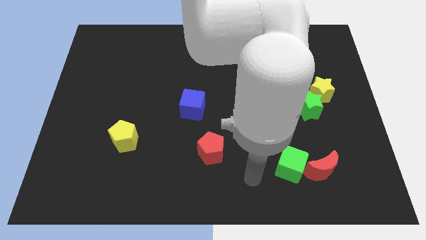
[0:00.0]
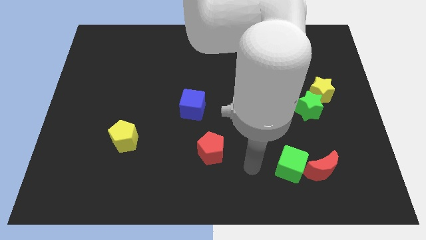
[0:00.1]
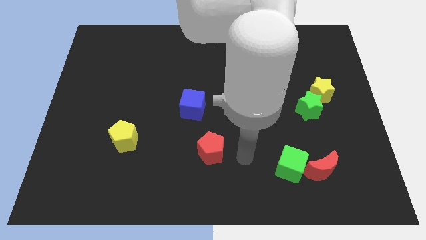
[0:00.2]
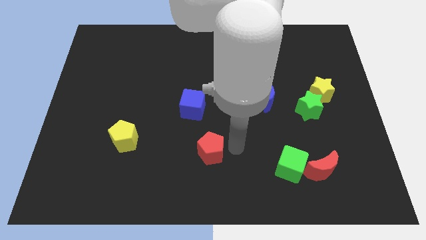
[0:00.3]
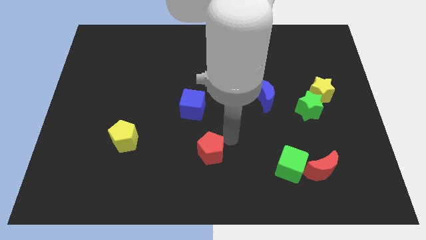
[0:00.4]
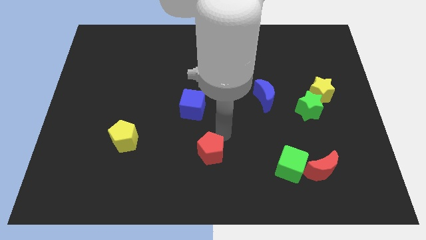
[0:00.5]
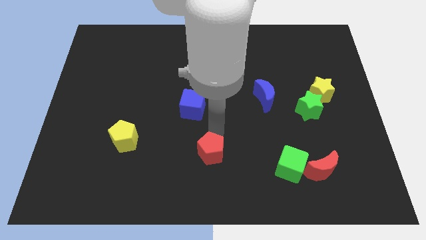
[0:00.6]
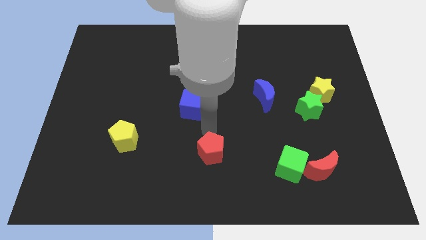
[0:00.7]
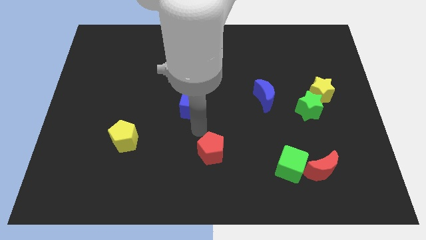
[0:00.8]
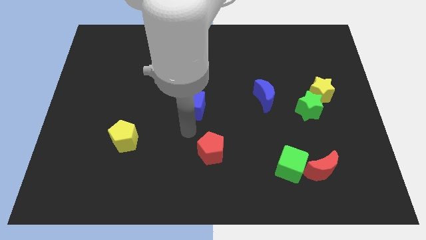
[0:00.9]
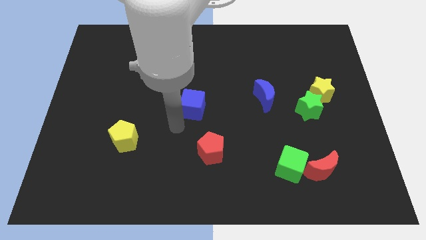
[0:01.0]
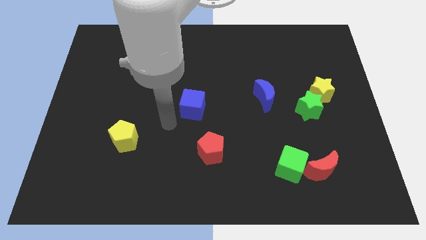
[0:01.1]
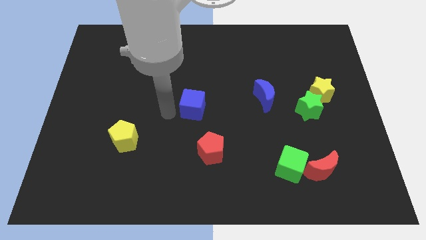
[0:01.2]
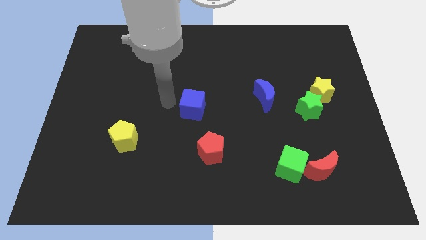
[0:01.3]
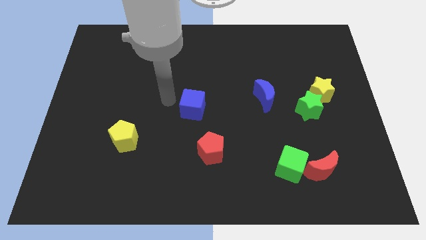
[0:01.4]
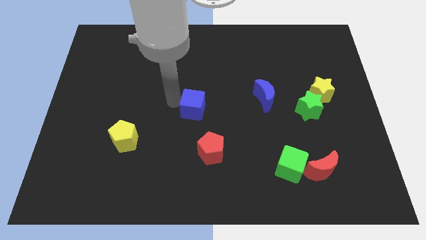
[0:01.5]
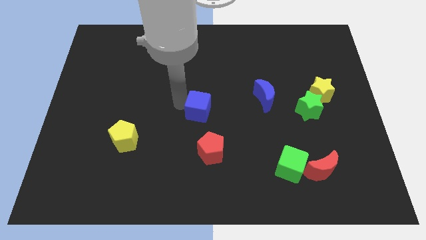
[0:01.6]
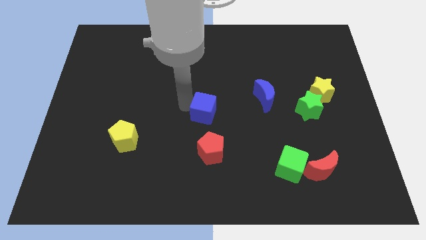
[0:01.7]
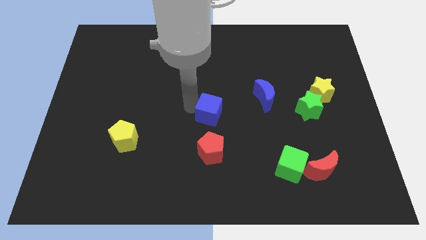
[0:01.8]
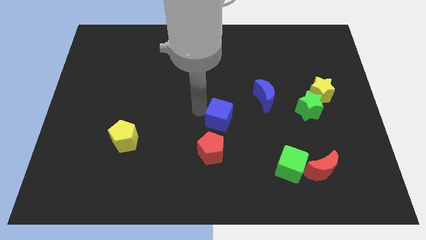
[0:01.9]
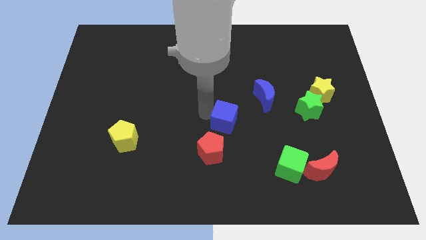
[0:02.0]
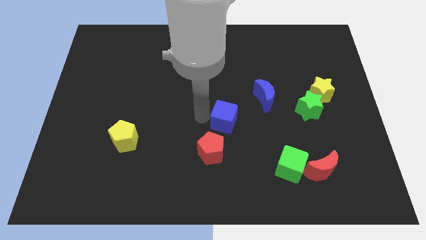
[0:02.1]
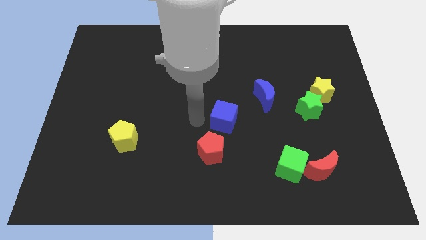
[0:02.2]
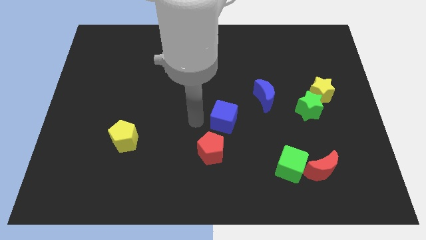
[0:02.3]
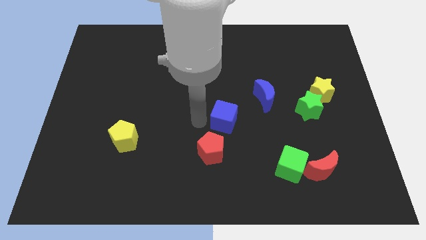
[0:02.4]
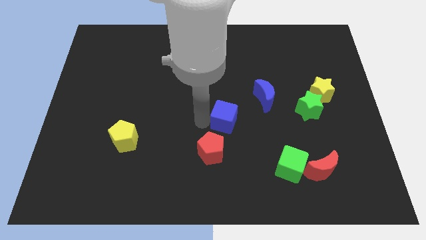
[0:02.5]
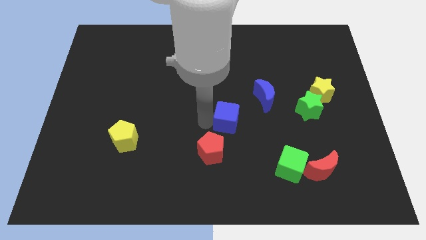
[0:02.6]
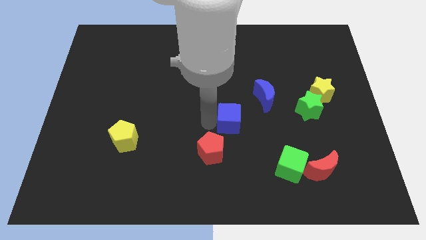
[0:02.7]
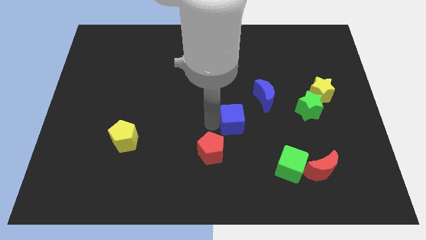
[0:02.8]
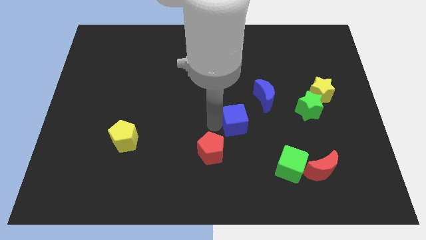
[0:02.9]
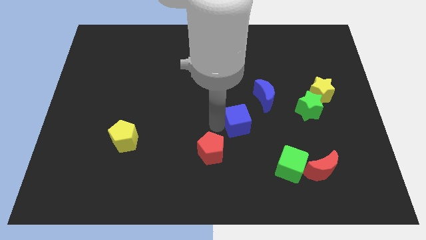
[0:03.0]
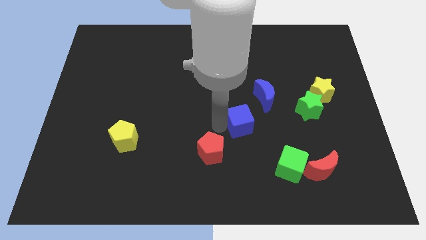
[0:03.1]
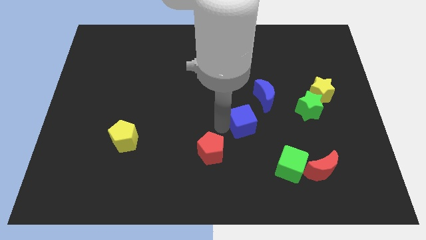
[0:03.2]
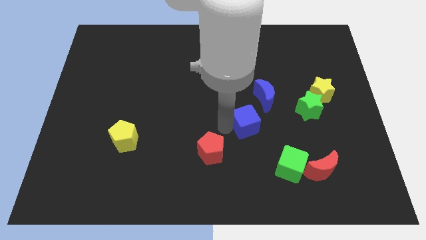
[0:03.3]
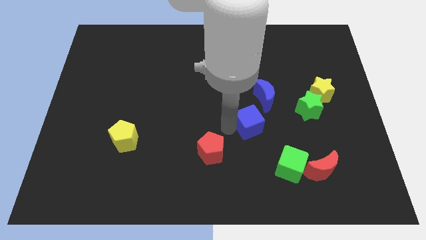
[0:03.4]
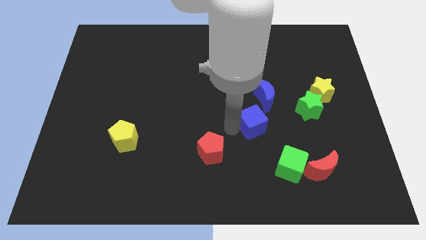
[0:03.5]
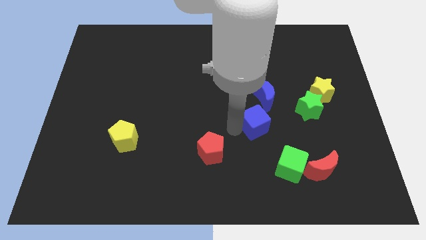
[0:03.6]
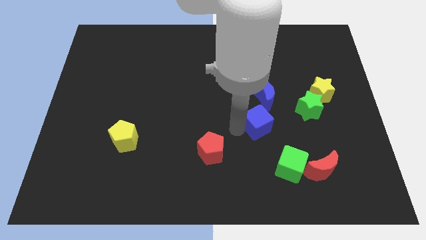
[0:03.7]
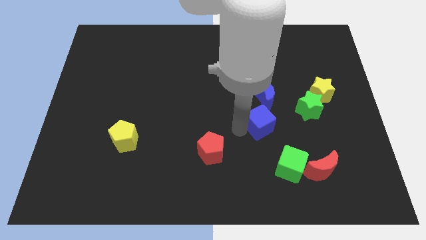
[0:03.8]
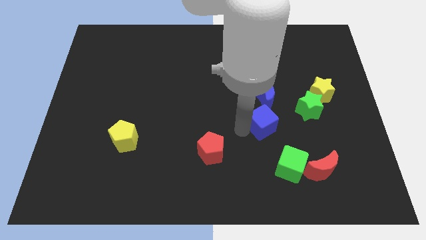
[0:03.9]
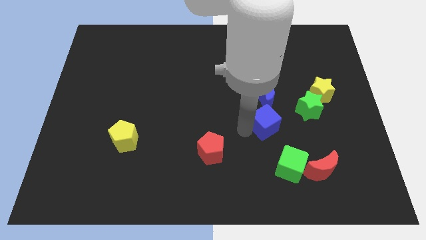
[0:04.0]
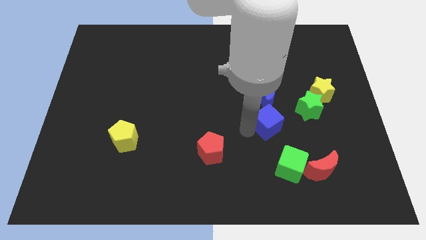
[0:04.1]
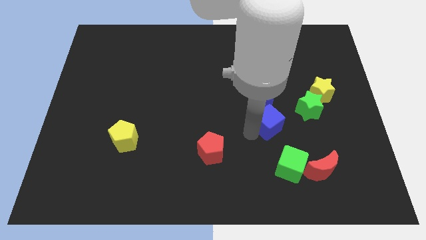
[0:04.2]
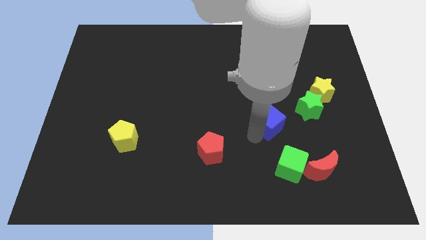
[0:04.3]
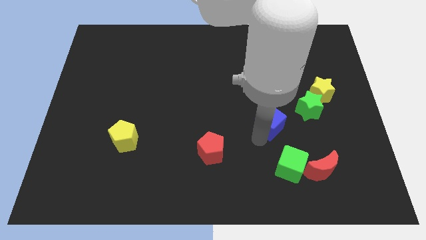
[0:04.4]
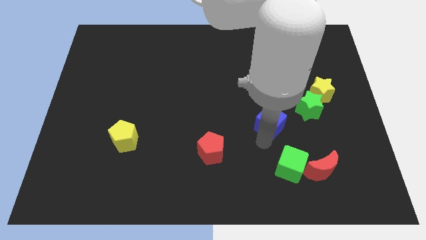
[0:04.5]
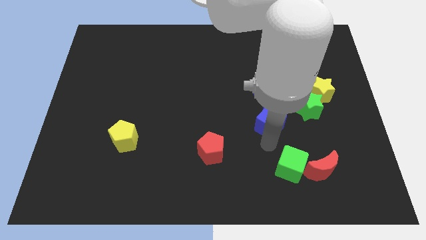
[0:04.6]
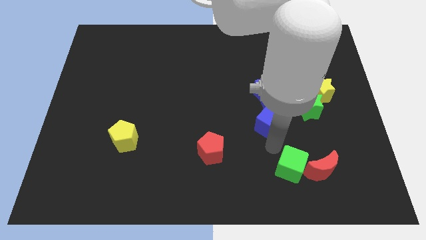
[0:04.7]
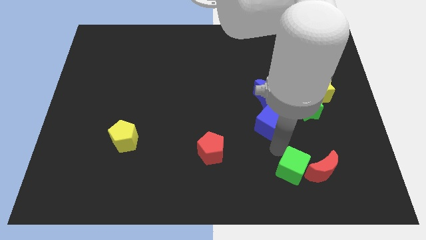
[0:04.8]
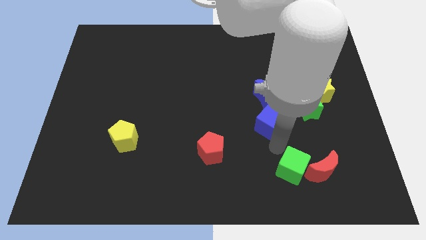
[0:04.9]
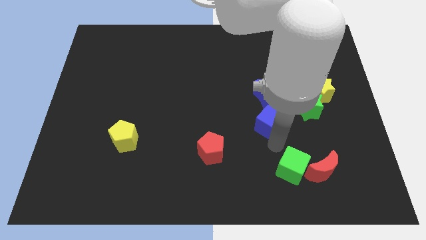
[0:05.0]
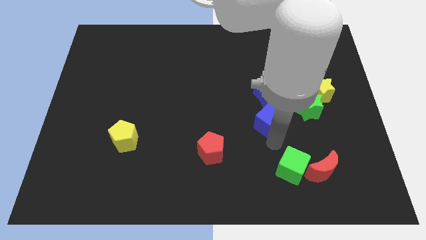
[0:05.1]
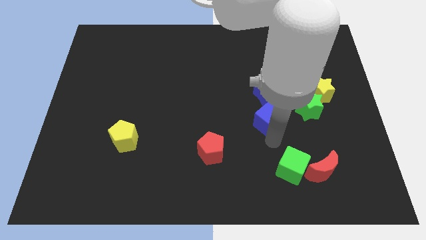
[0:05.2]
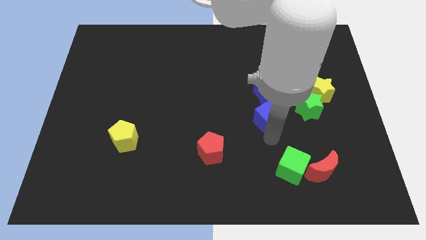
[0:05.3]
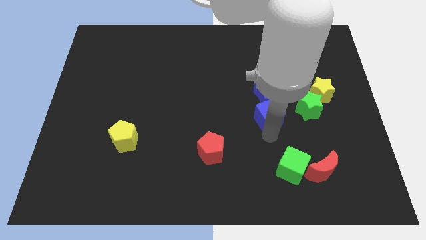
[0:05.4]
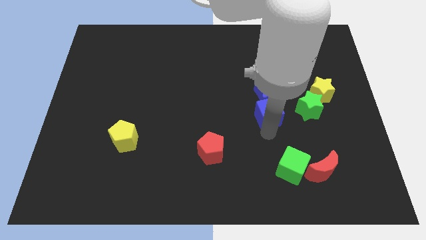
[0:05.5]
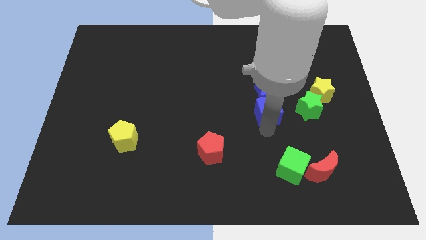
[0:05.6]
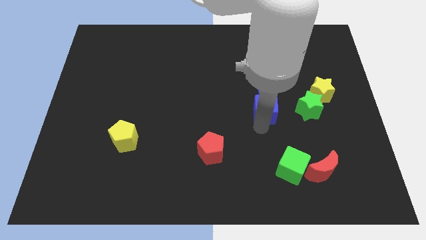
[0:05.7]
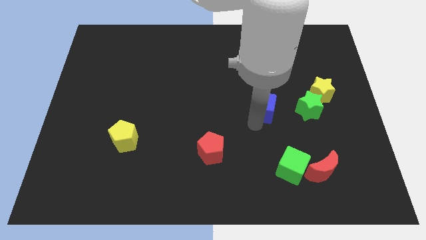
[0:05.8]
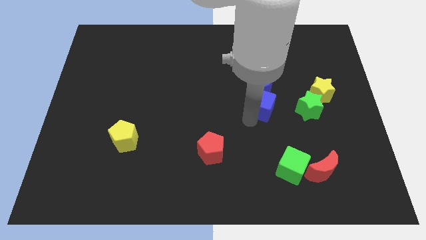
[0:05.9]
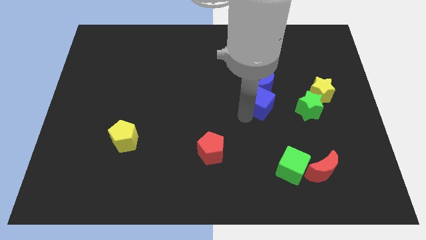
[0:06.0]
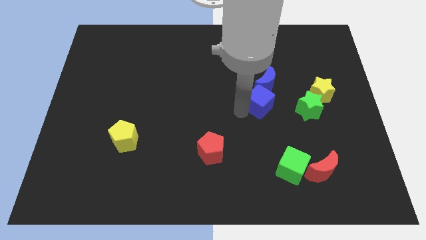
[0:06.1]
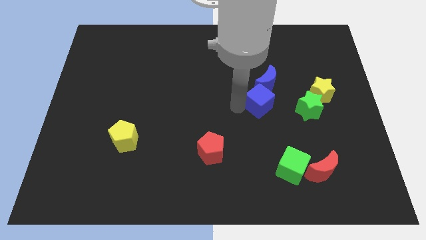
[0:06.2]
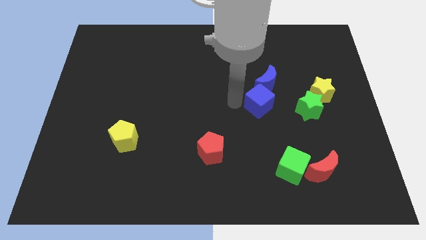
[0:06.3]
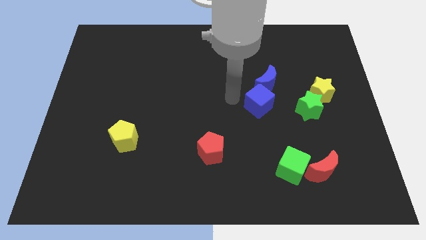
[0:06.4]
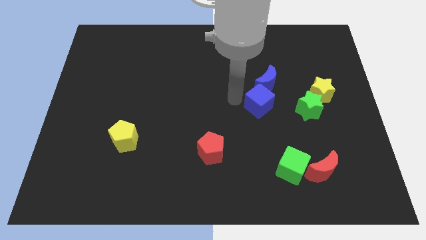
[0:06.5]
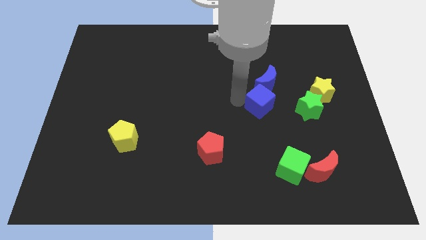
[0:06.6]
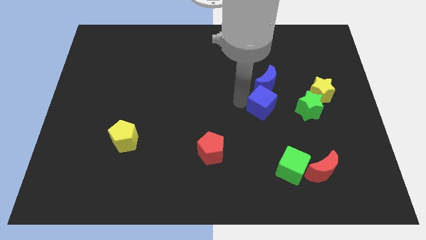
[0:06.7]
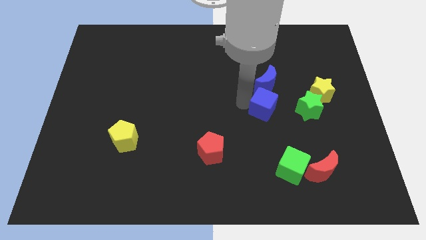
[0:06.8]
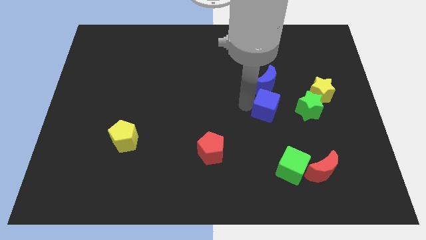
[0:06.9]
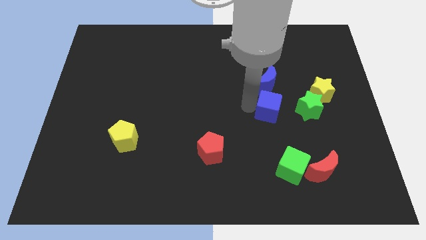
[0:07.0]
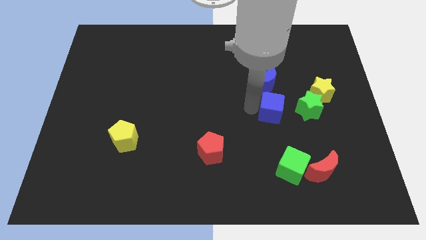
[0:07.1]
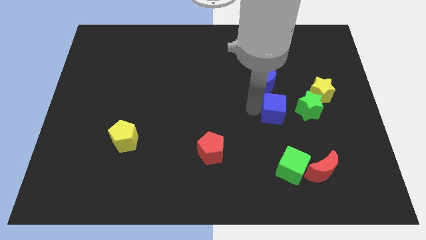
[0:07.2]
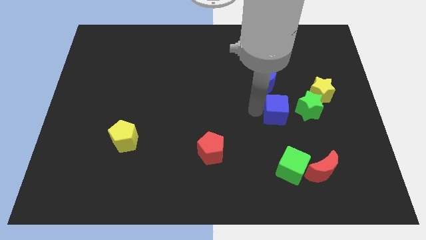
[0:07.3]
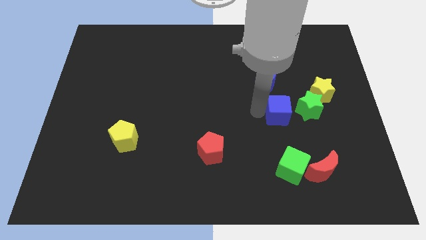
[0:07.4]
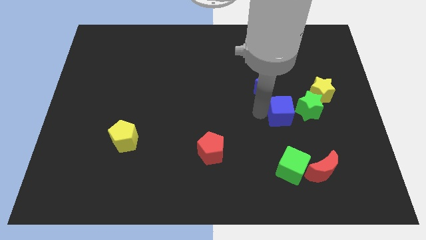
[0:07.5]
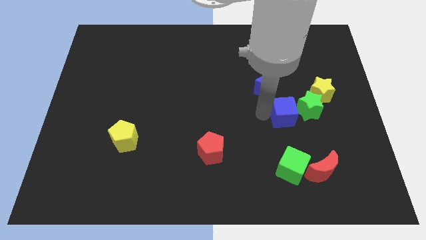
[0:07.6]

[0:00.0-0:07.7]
push the blue cube next to the green star
